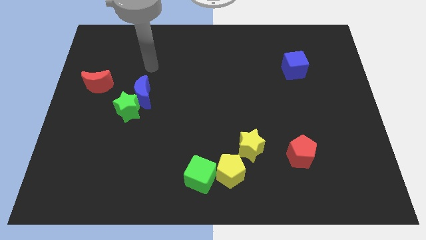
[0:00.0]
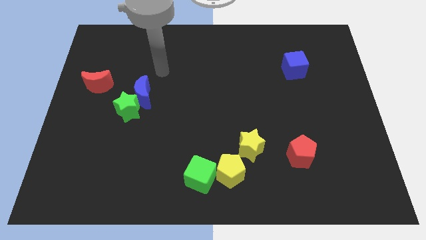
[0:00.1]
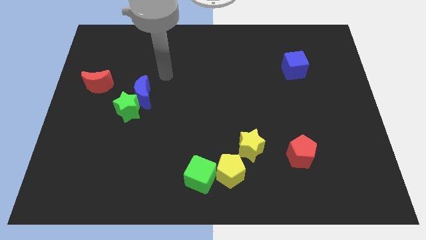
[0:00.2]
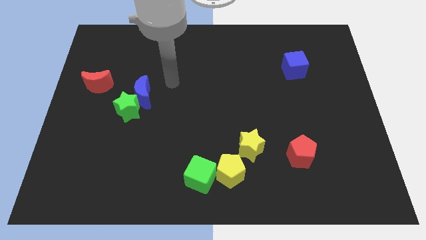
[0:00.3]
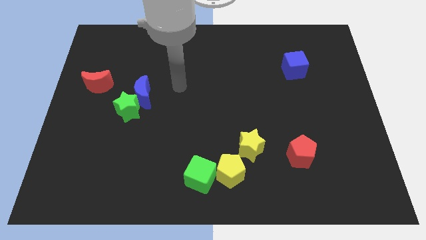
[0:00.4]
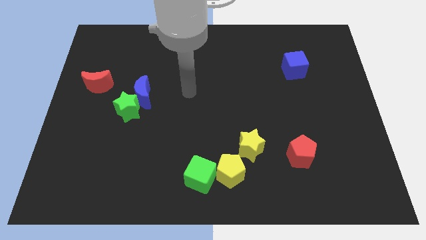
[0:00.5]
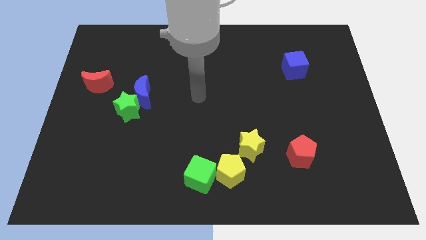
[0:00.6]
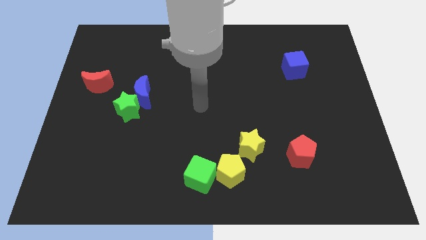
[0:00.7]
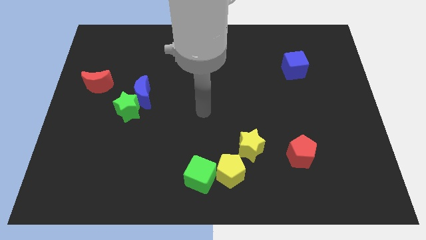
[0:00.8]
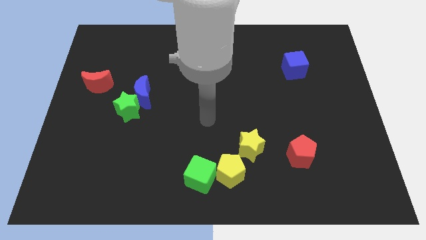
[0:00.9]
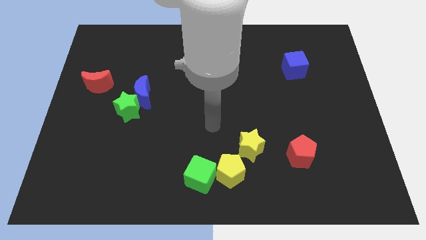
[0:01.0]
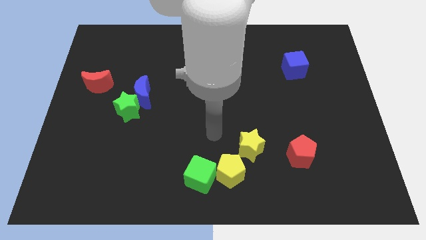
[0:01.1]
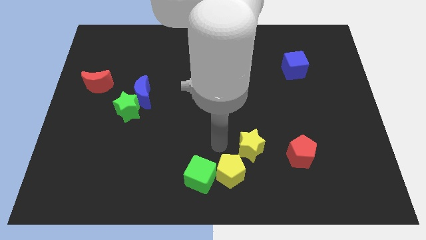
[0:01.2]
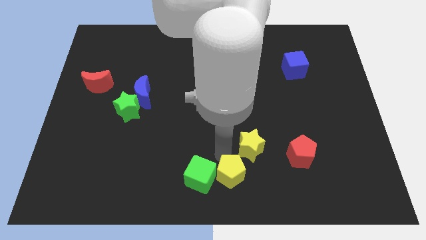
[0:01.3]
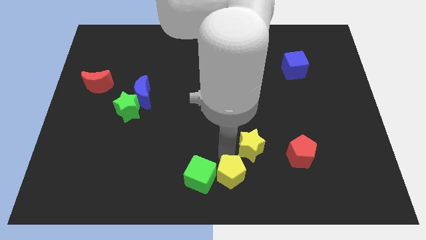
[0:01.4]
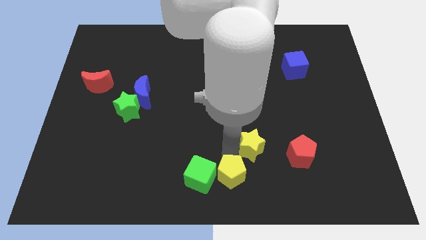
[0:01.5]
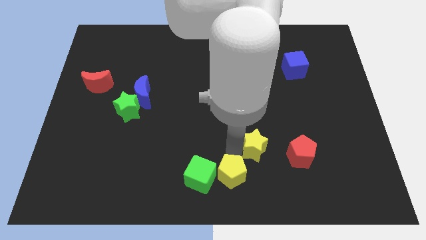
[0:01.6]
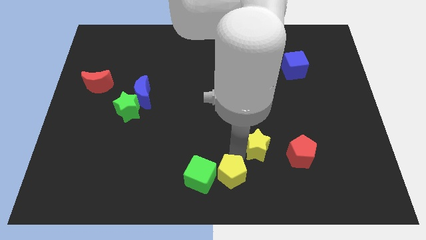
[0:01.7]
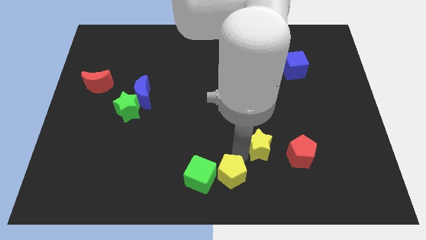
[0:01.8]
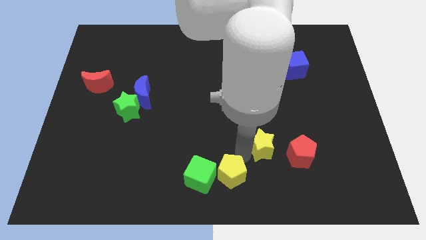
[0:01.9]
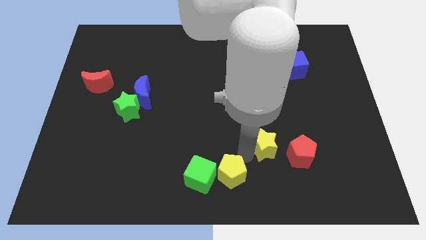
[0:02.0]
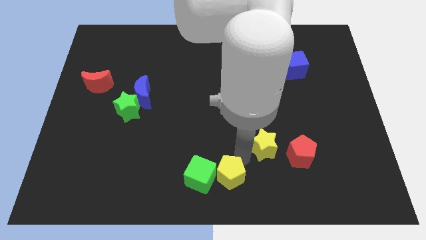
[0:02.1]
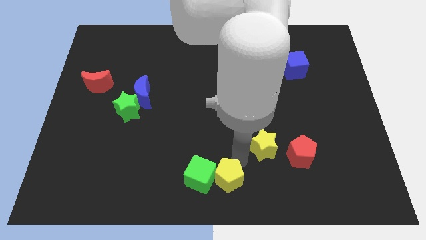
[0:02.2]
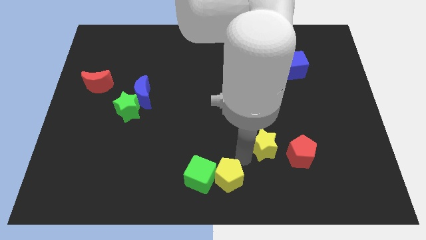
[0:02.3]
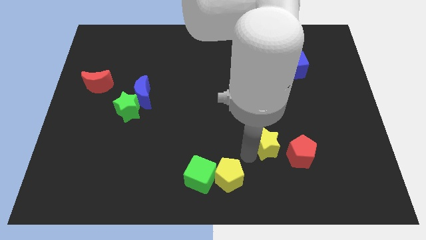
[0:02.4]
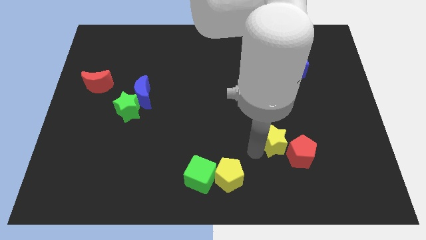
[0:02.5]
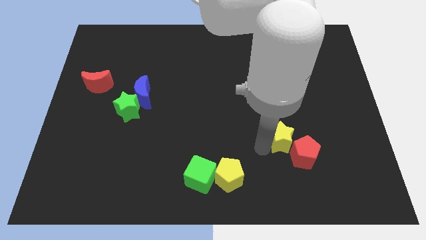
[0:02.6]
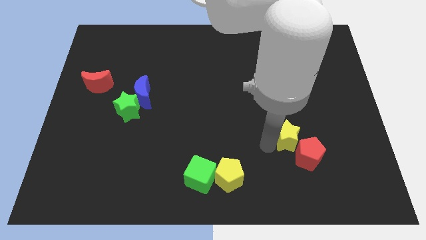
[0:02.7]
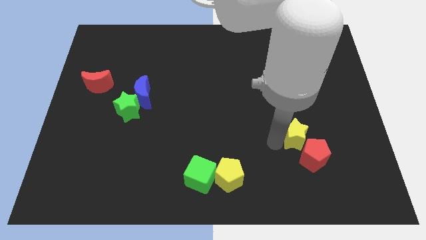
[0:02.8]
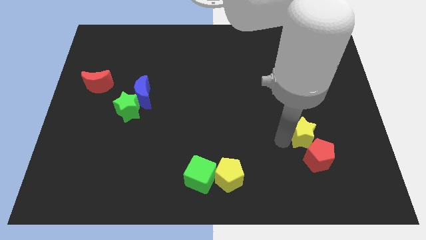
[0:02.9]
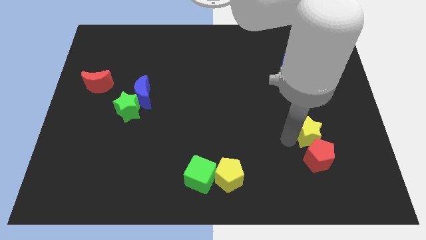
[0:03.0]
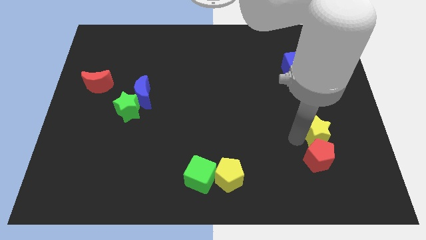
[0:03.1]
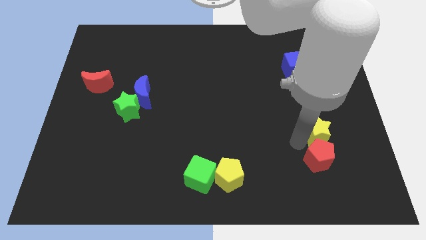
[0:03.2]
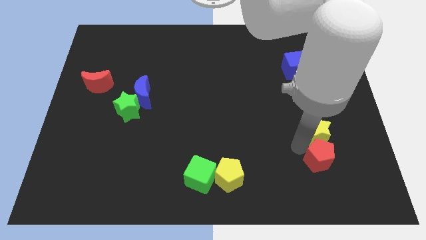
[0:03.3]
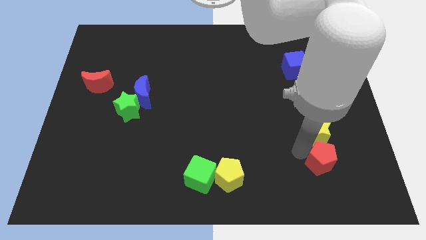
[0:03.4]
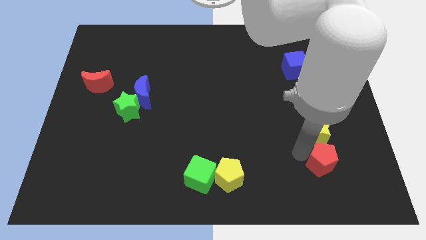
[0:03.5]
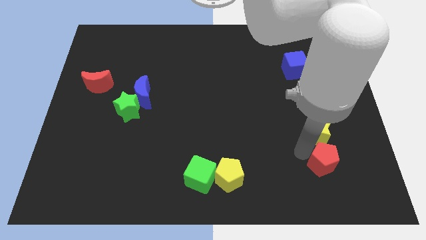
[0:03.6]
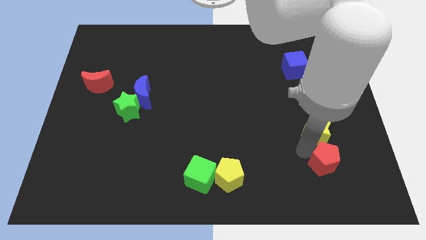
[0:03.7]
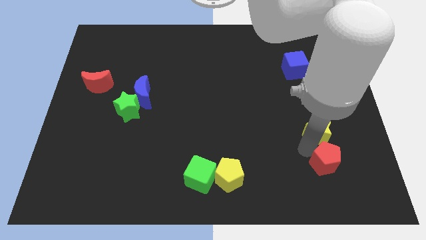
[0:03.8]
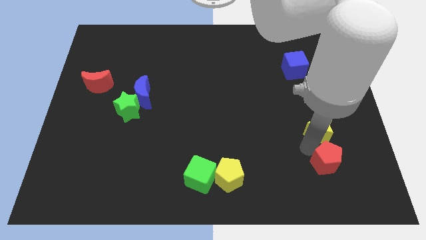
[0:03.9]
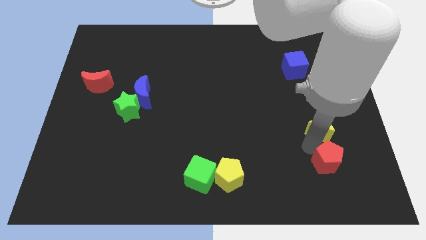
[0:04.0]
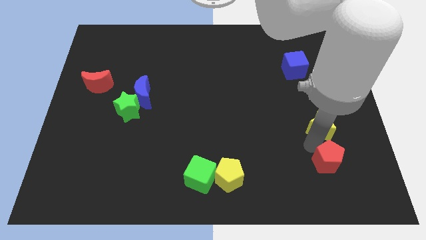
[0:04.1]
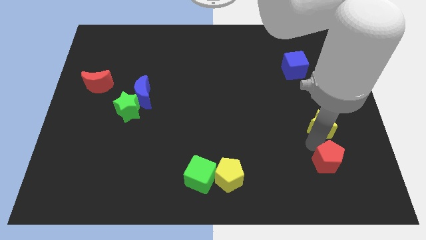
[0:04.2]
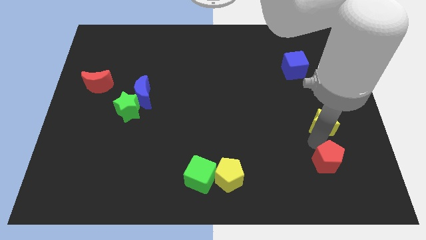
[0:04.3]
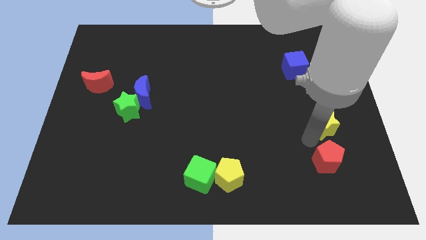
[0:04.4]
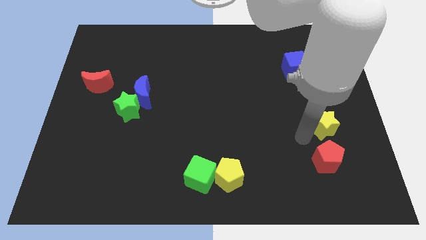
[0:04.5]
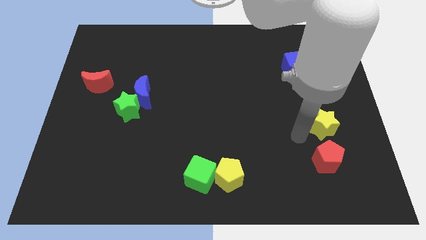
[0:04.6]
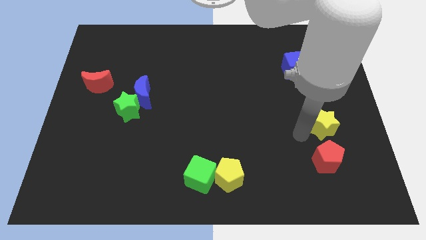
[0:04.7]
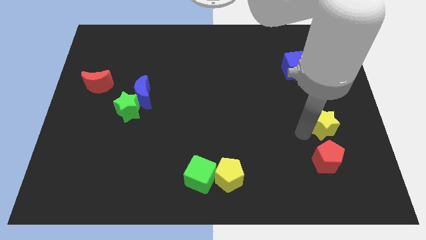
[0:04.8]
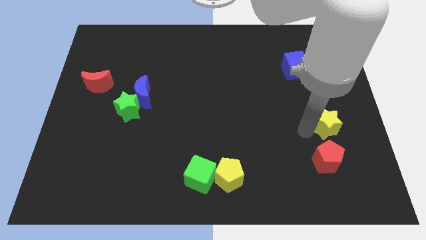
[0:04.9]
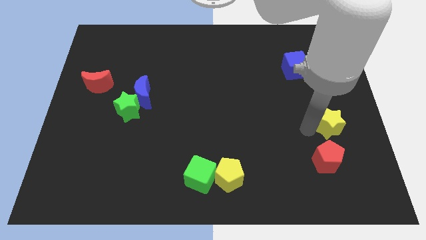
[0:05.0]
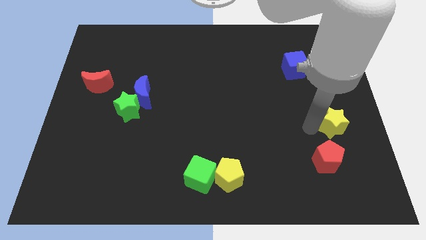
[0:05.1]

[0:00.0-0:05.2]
move the yellow star to the center right

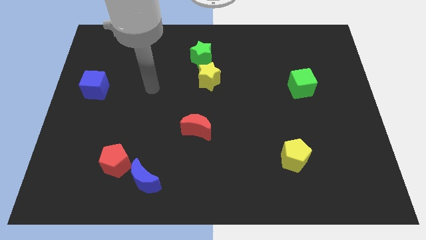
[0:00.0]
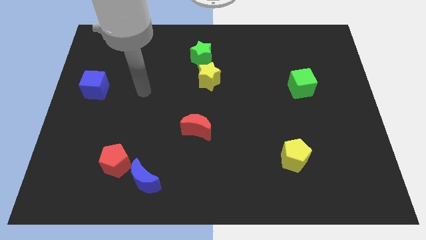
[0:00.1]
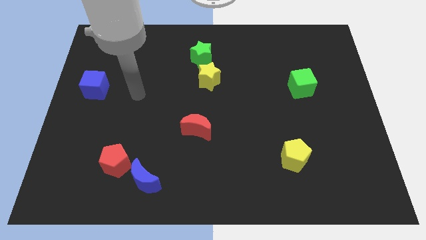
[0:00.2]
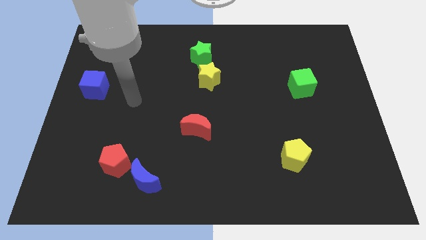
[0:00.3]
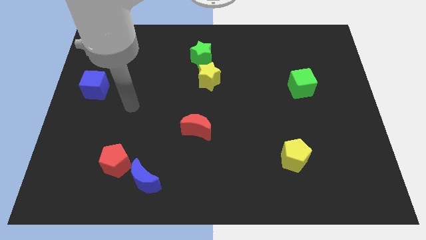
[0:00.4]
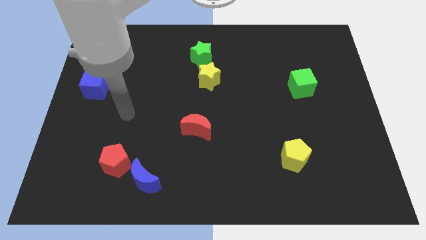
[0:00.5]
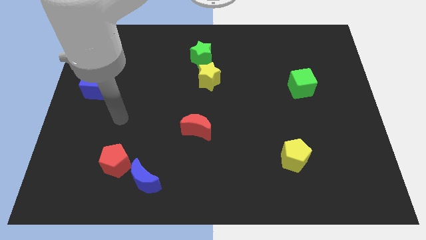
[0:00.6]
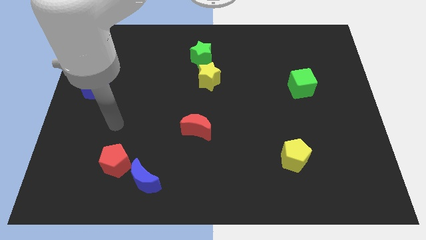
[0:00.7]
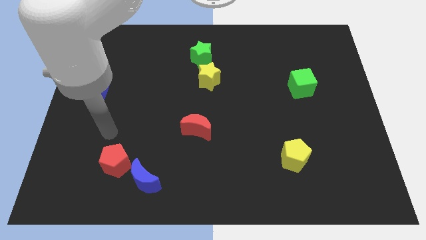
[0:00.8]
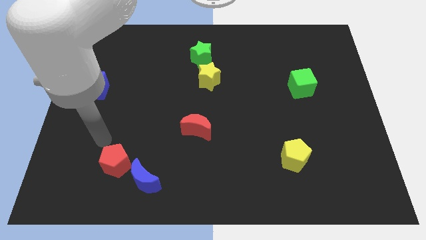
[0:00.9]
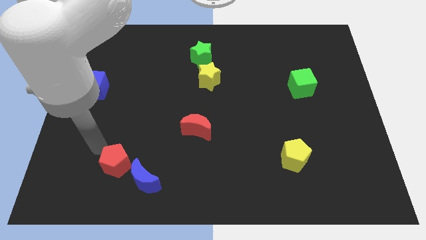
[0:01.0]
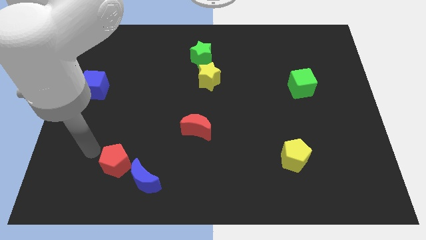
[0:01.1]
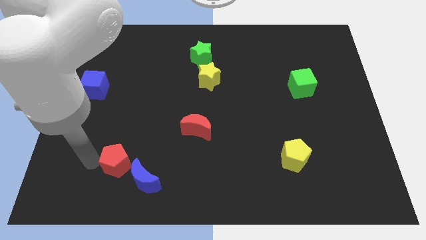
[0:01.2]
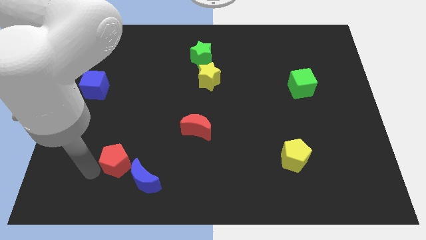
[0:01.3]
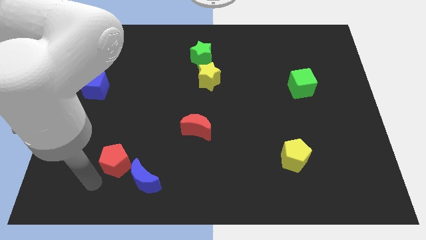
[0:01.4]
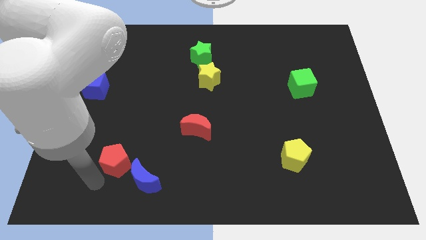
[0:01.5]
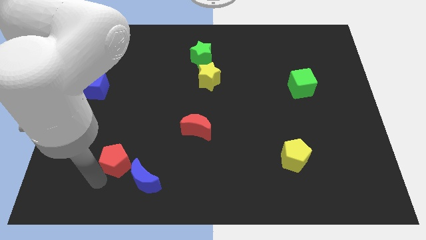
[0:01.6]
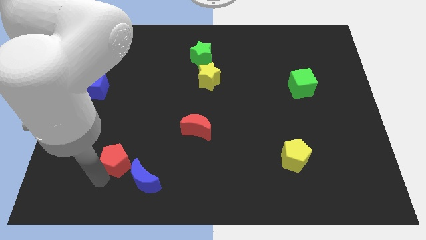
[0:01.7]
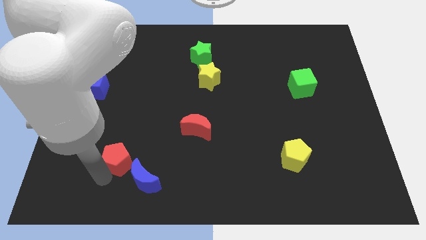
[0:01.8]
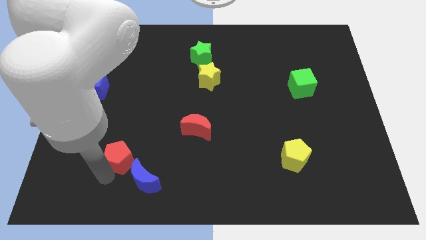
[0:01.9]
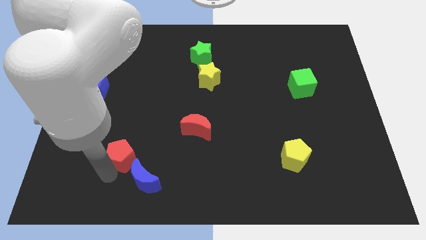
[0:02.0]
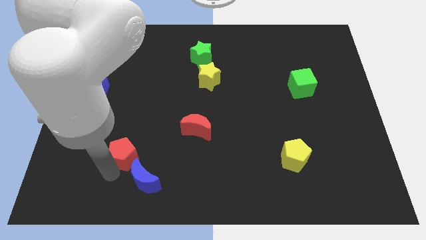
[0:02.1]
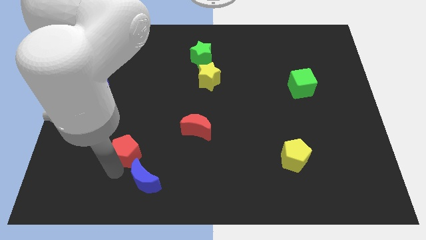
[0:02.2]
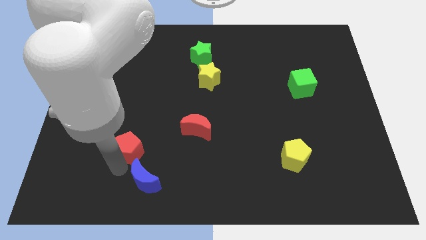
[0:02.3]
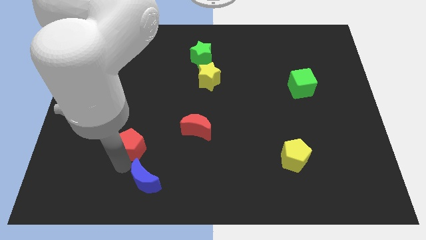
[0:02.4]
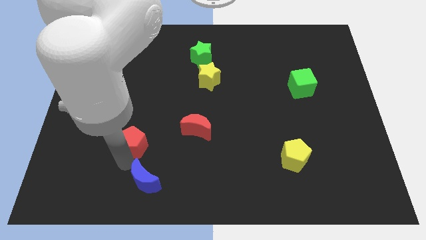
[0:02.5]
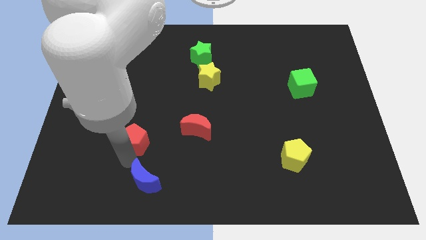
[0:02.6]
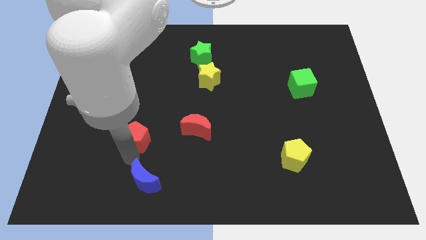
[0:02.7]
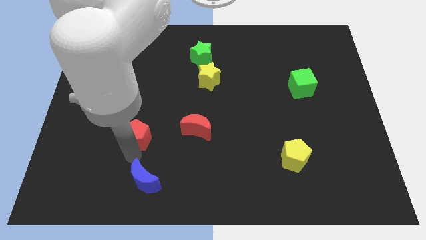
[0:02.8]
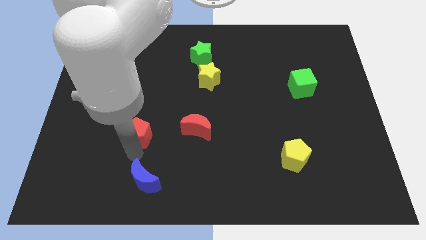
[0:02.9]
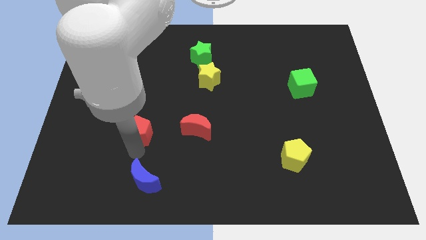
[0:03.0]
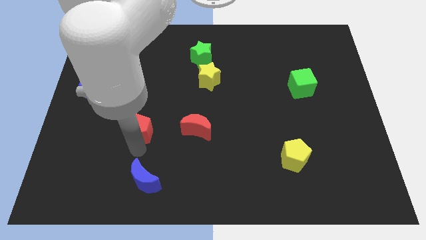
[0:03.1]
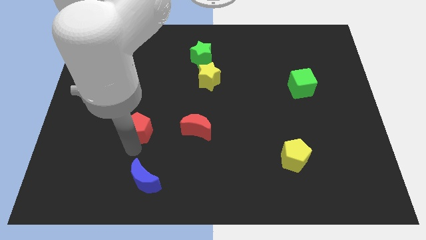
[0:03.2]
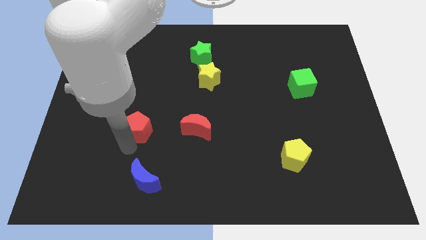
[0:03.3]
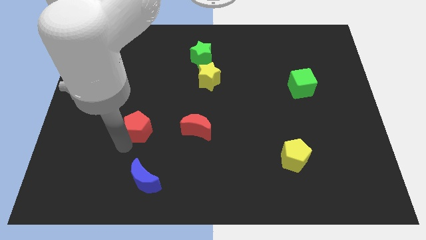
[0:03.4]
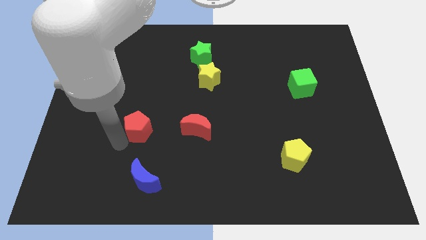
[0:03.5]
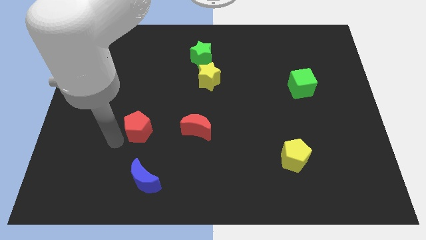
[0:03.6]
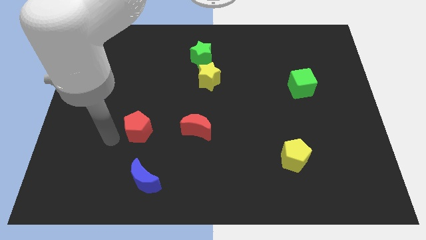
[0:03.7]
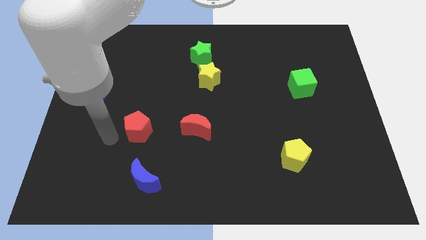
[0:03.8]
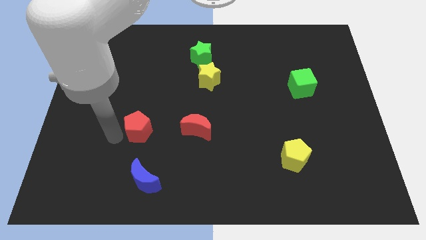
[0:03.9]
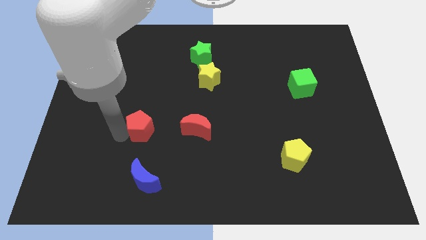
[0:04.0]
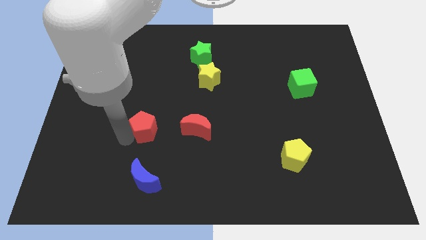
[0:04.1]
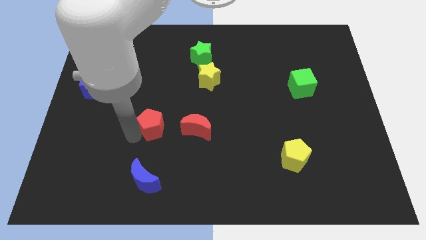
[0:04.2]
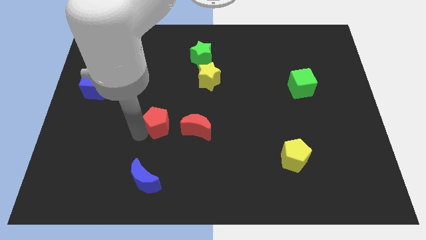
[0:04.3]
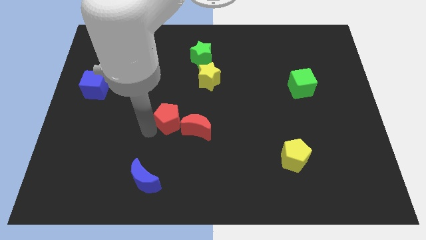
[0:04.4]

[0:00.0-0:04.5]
push the red pentagon to the center
